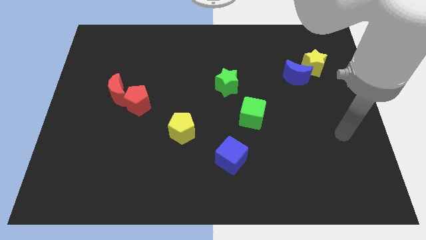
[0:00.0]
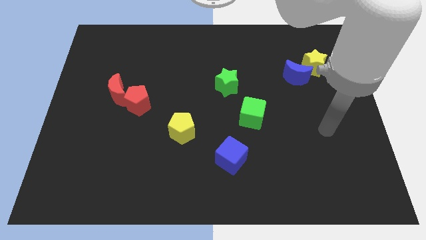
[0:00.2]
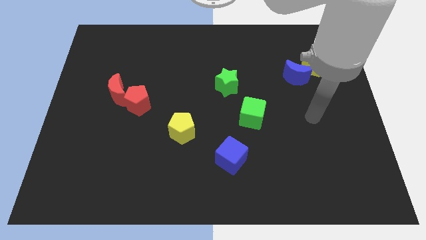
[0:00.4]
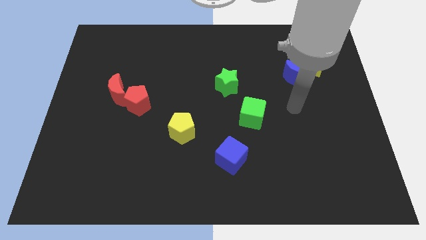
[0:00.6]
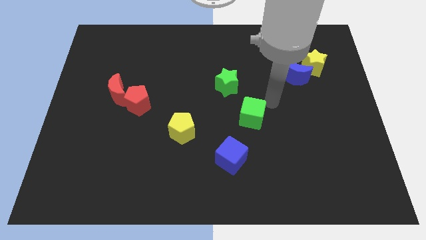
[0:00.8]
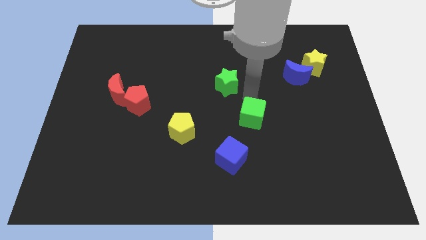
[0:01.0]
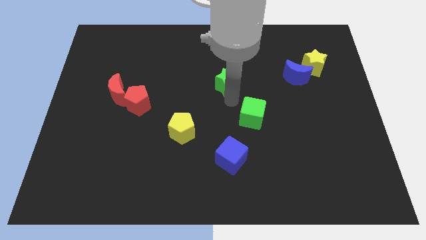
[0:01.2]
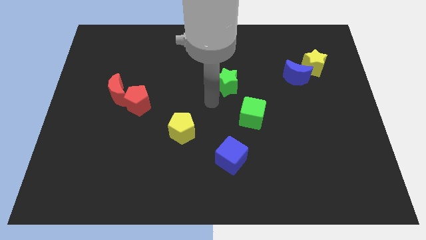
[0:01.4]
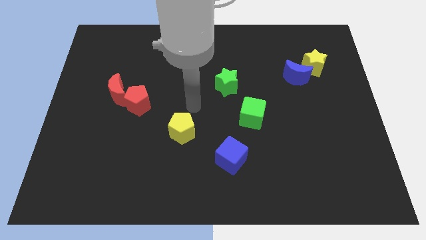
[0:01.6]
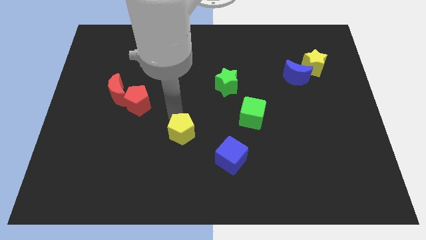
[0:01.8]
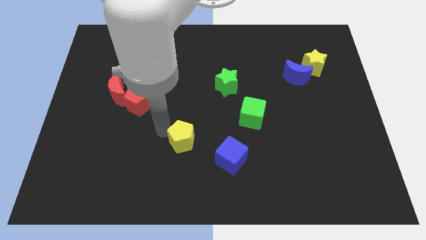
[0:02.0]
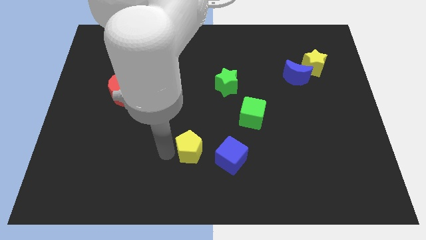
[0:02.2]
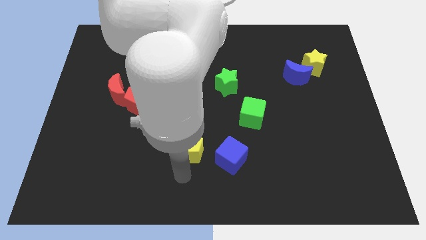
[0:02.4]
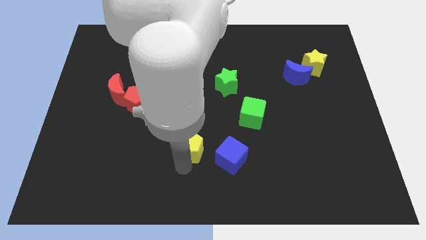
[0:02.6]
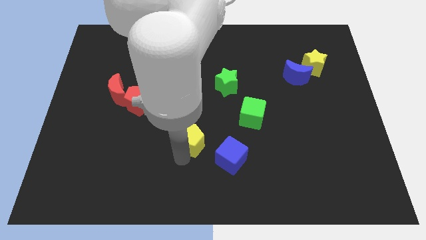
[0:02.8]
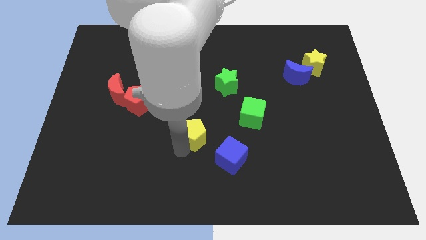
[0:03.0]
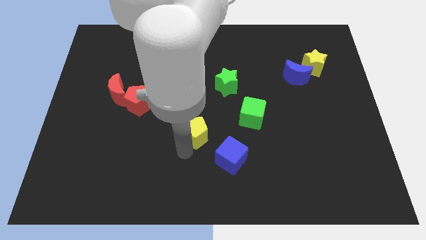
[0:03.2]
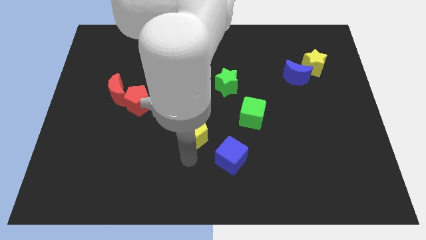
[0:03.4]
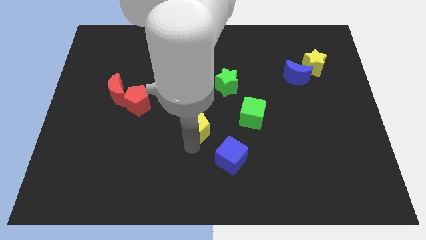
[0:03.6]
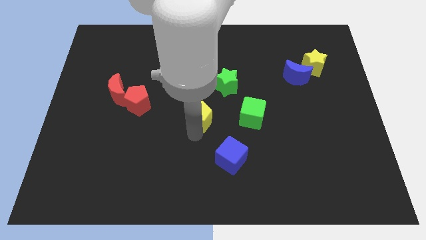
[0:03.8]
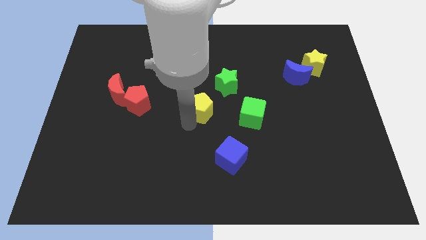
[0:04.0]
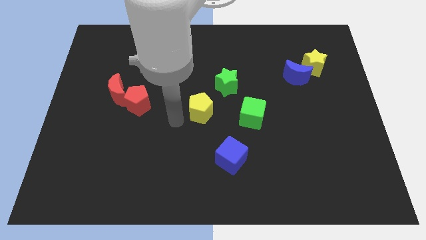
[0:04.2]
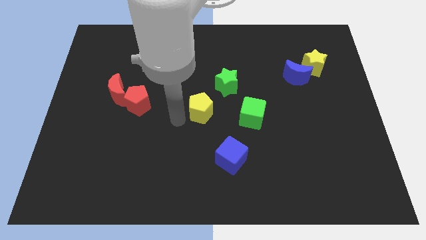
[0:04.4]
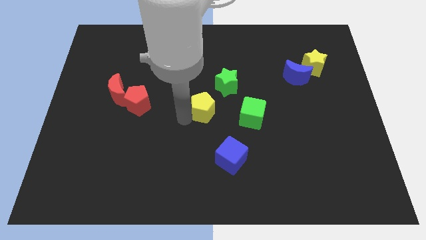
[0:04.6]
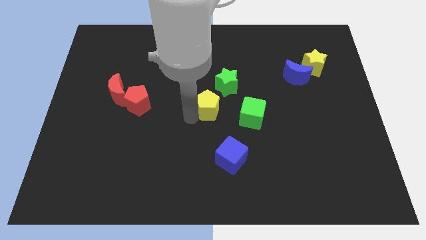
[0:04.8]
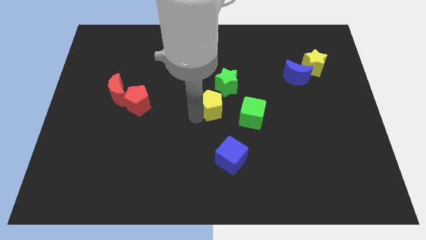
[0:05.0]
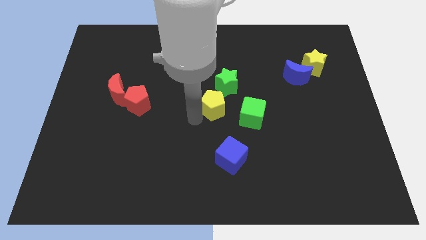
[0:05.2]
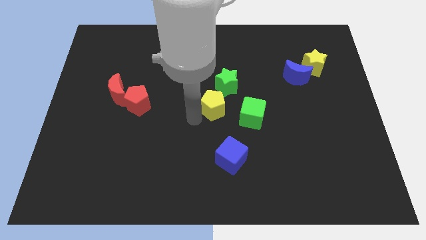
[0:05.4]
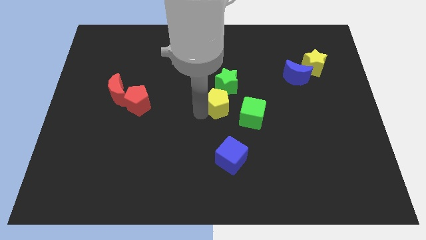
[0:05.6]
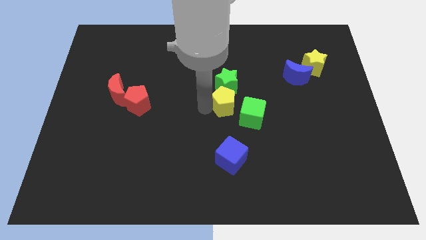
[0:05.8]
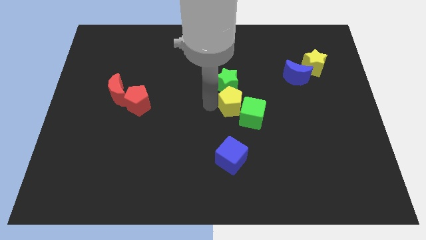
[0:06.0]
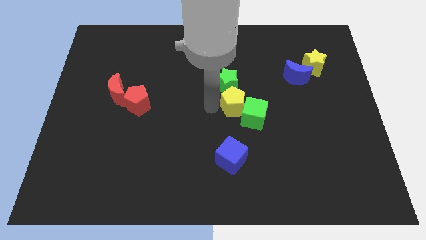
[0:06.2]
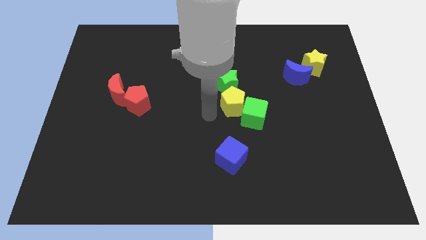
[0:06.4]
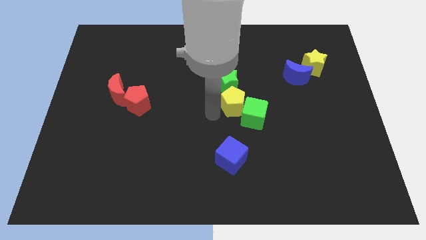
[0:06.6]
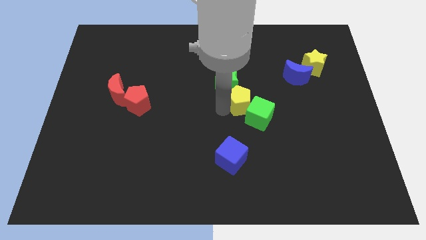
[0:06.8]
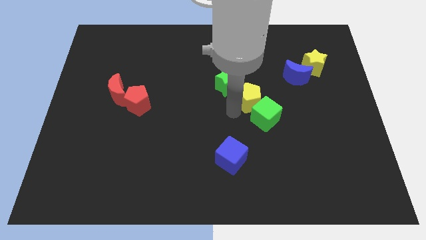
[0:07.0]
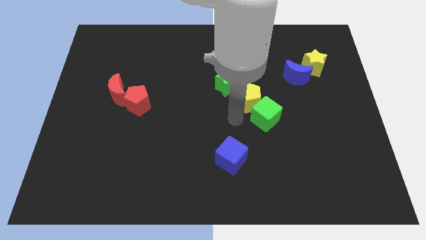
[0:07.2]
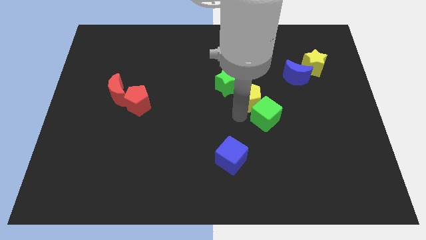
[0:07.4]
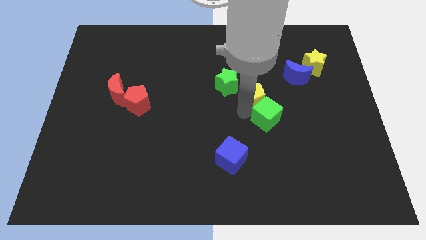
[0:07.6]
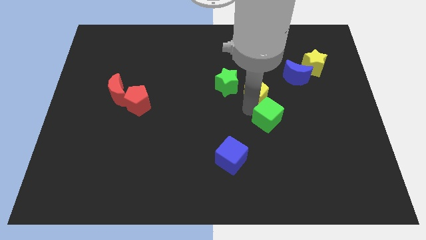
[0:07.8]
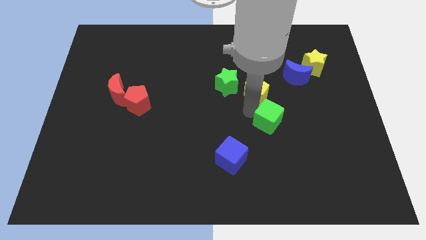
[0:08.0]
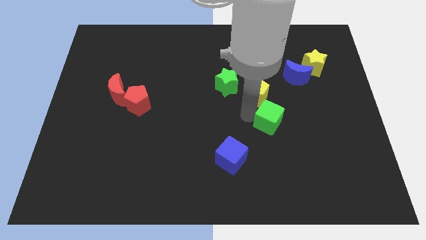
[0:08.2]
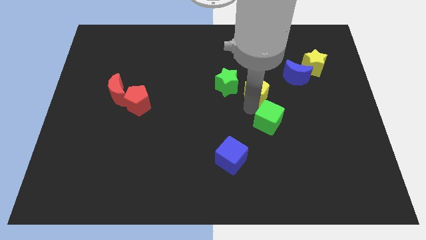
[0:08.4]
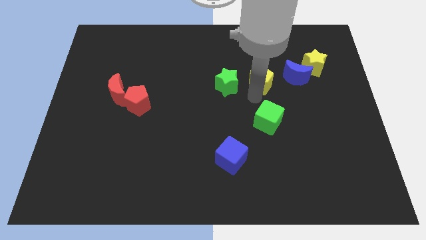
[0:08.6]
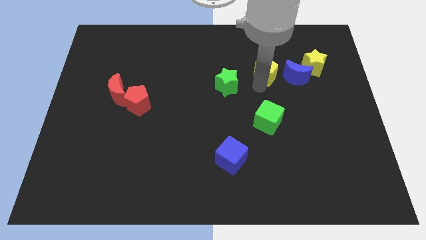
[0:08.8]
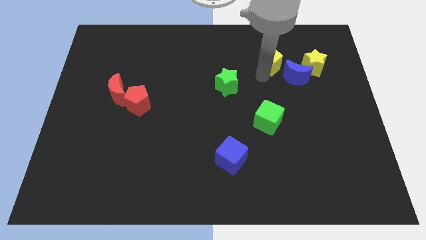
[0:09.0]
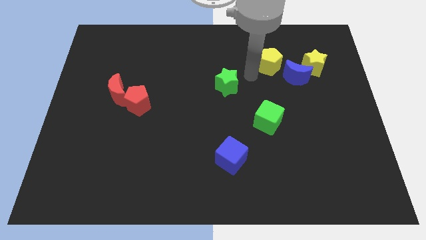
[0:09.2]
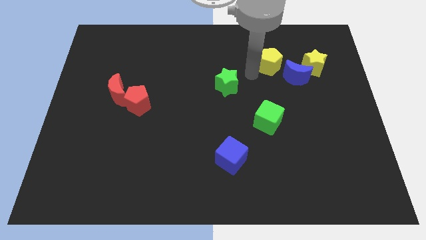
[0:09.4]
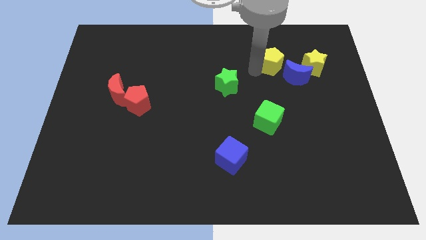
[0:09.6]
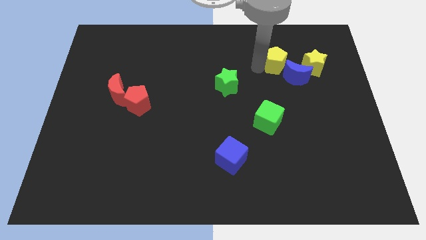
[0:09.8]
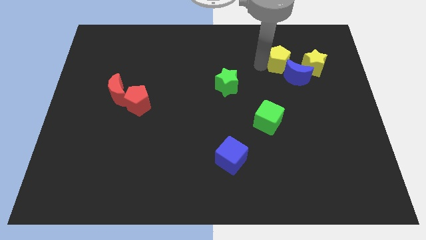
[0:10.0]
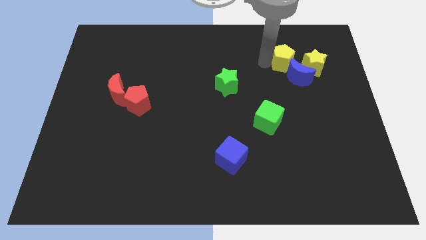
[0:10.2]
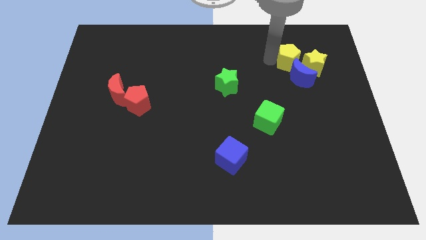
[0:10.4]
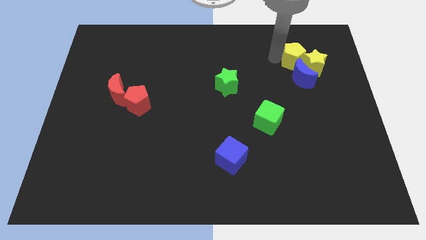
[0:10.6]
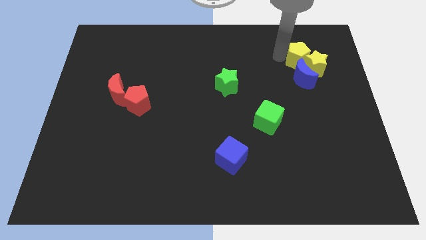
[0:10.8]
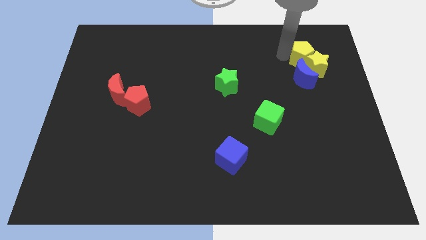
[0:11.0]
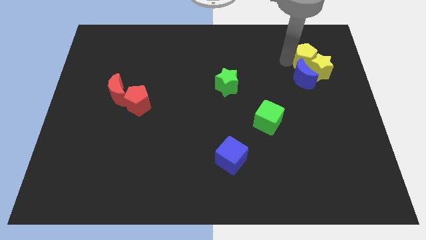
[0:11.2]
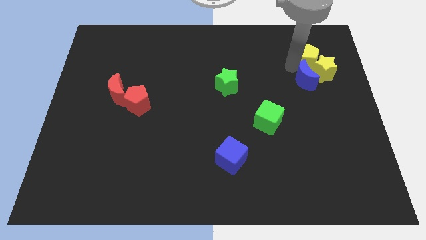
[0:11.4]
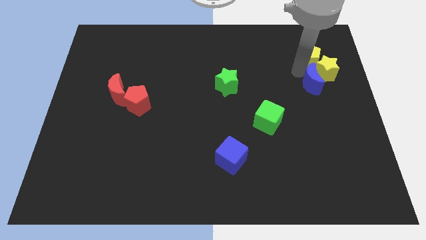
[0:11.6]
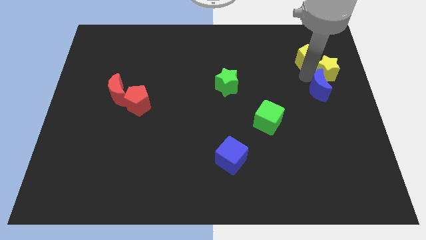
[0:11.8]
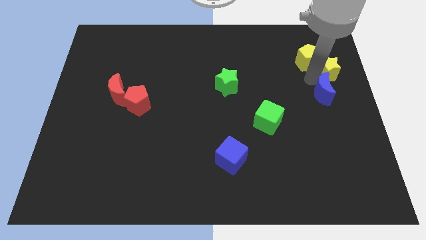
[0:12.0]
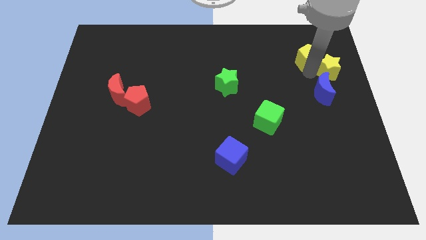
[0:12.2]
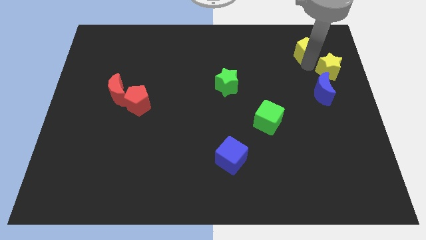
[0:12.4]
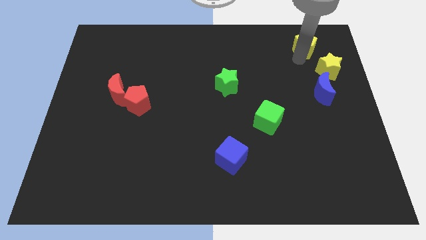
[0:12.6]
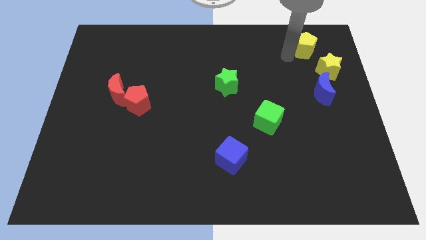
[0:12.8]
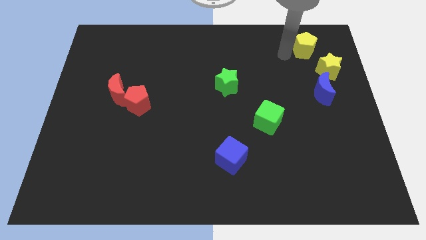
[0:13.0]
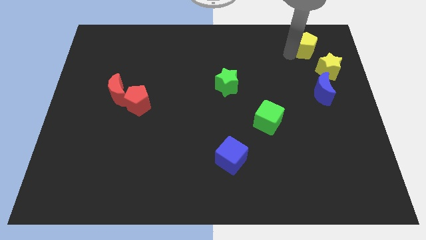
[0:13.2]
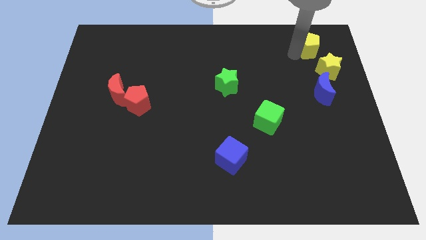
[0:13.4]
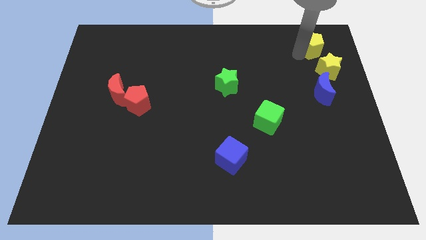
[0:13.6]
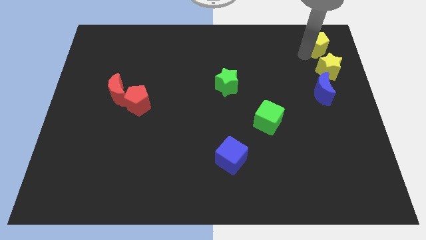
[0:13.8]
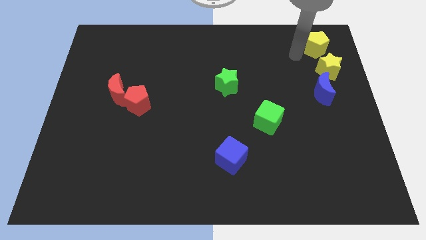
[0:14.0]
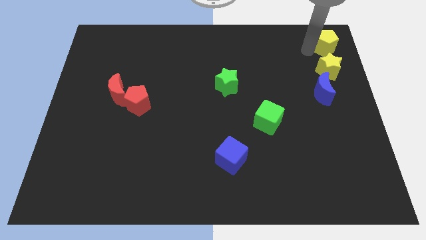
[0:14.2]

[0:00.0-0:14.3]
move the yellow pentagon to the upper right corner
